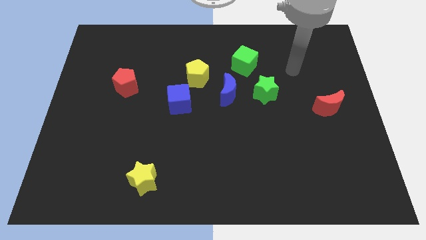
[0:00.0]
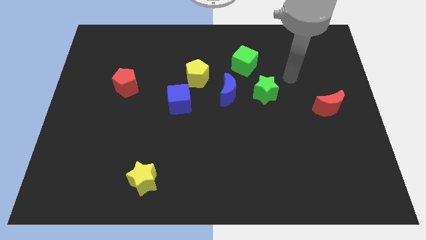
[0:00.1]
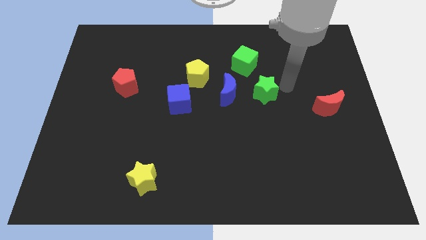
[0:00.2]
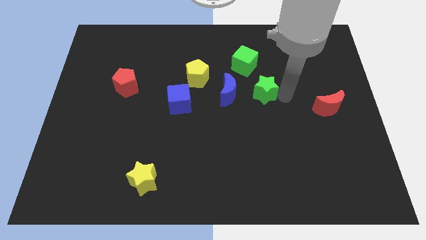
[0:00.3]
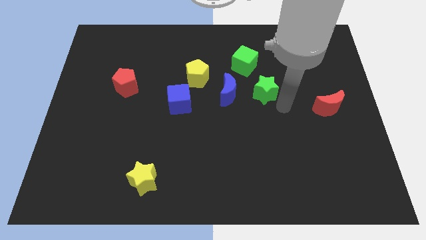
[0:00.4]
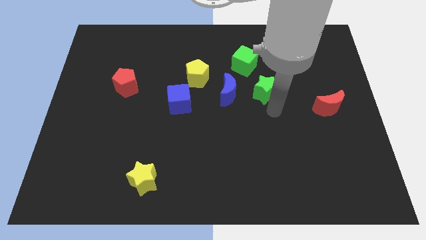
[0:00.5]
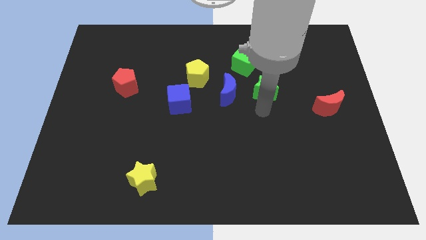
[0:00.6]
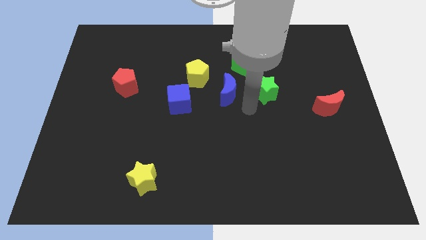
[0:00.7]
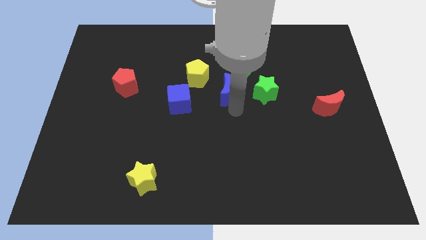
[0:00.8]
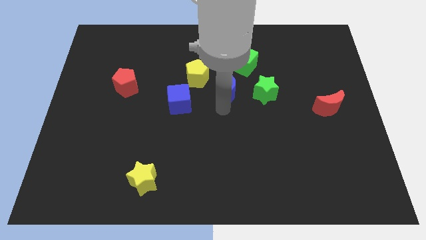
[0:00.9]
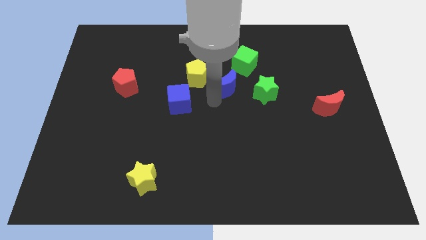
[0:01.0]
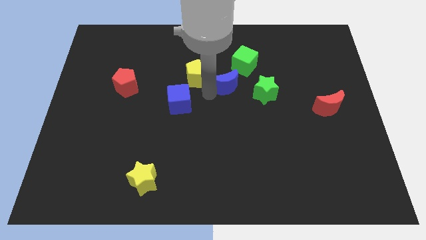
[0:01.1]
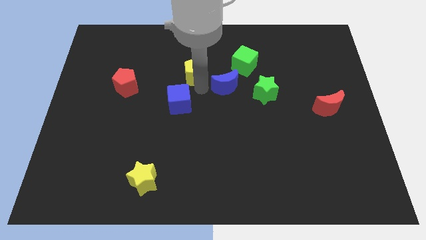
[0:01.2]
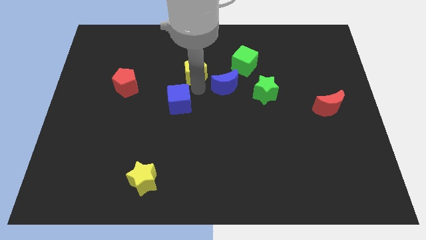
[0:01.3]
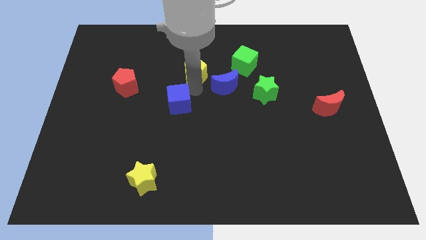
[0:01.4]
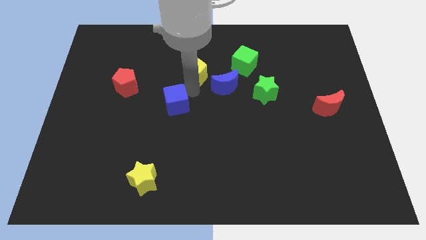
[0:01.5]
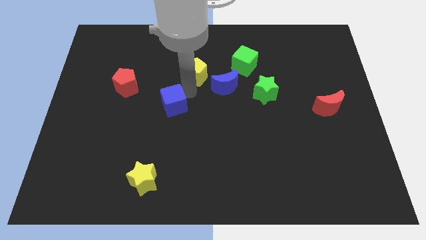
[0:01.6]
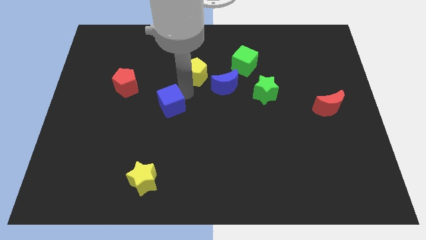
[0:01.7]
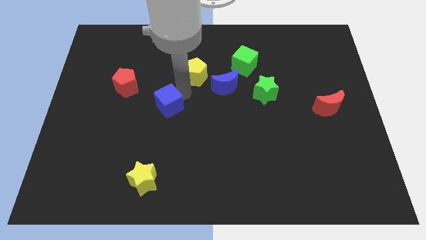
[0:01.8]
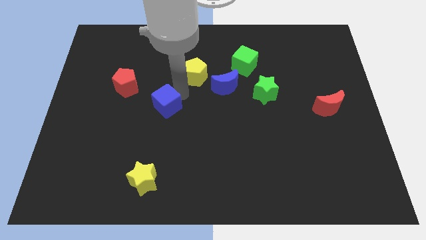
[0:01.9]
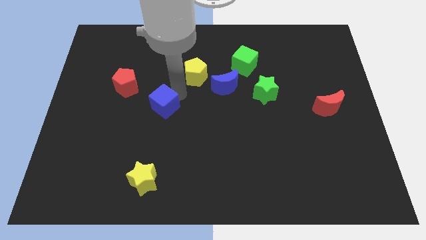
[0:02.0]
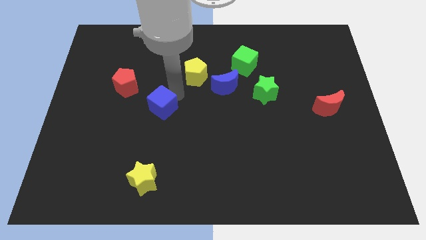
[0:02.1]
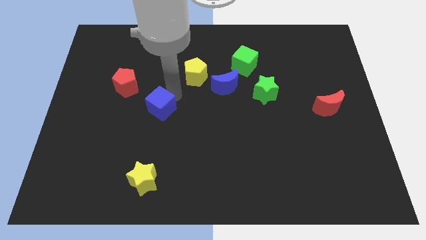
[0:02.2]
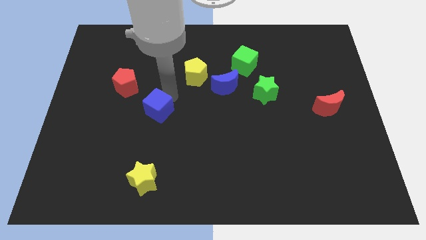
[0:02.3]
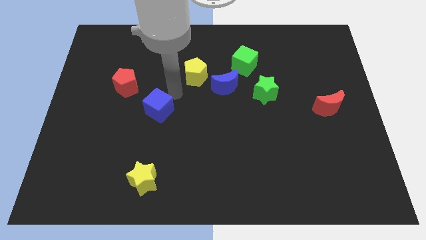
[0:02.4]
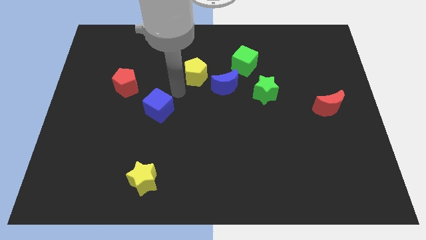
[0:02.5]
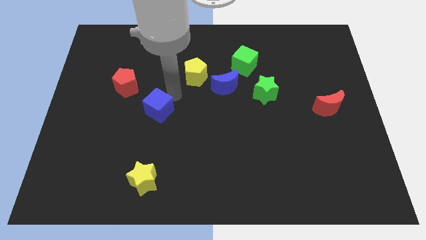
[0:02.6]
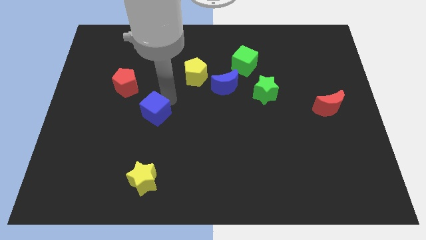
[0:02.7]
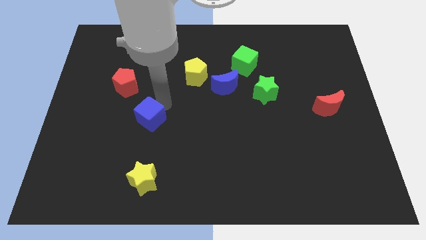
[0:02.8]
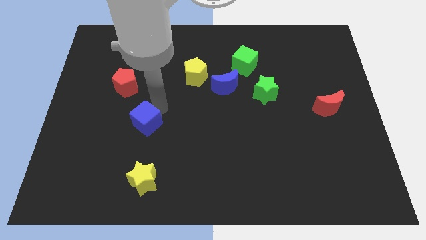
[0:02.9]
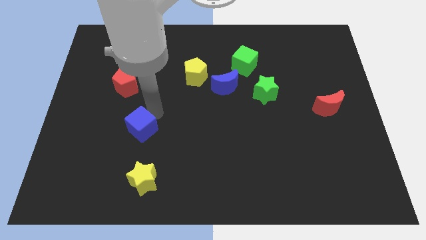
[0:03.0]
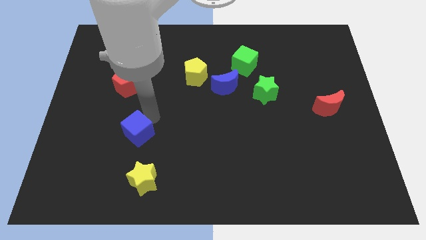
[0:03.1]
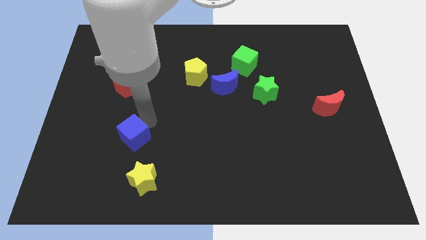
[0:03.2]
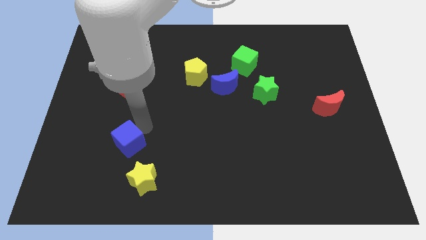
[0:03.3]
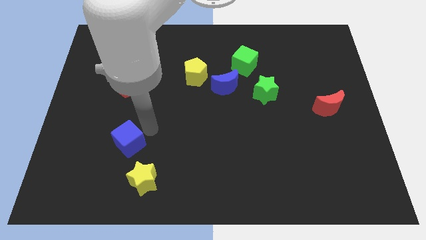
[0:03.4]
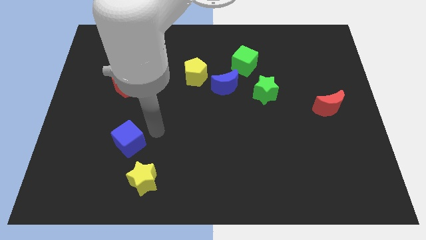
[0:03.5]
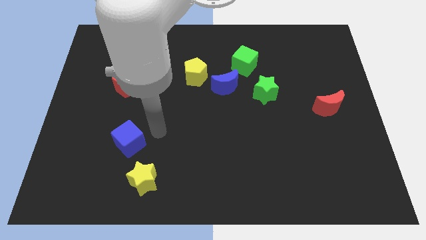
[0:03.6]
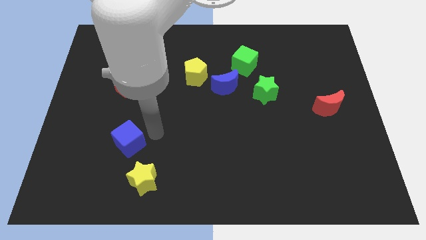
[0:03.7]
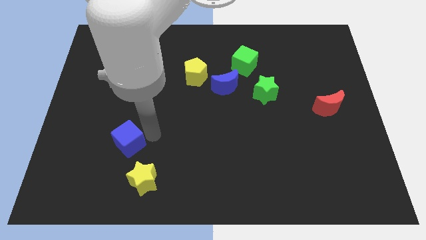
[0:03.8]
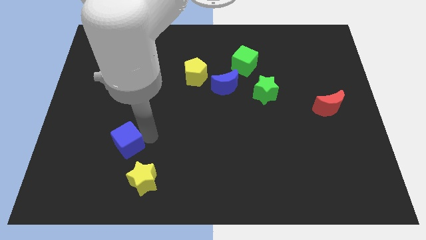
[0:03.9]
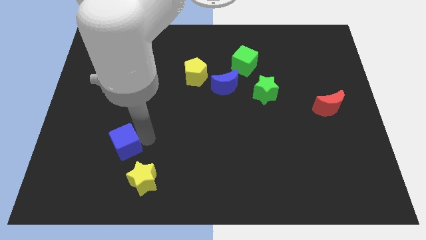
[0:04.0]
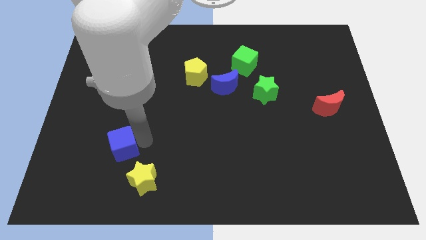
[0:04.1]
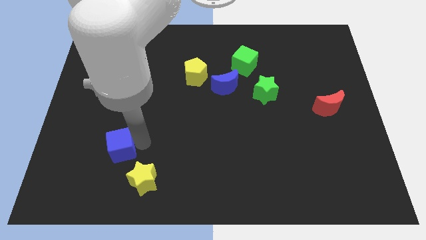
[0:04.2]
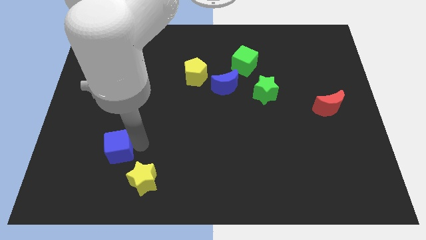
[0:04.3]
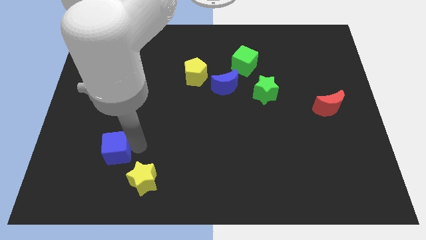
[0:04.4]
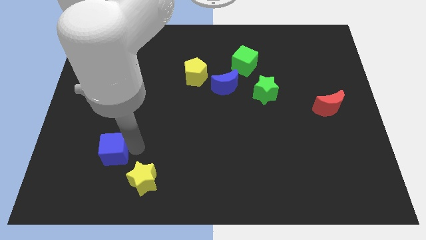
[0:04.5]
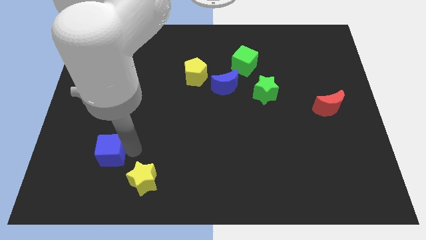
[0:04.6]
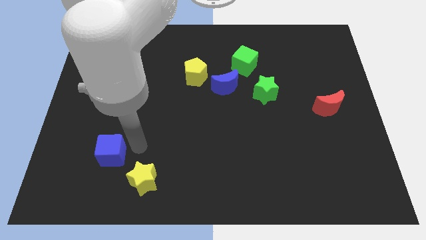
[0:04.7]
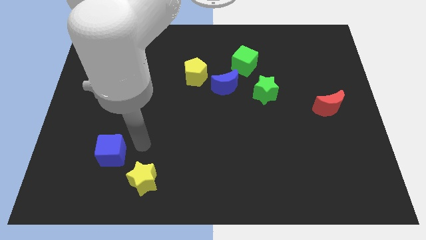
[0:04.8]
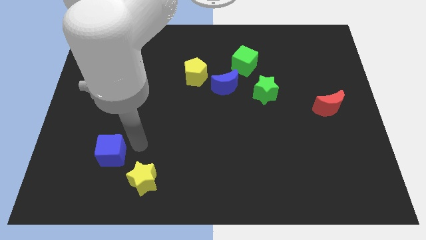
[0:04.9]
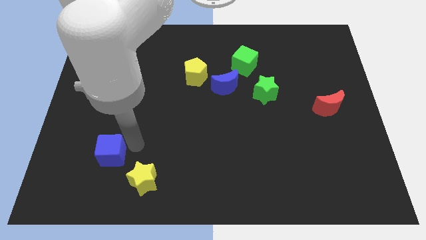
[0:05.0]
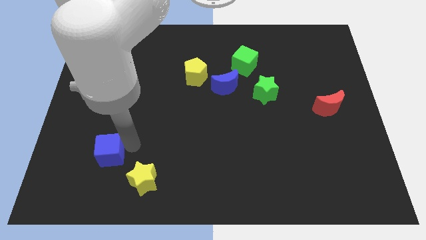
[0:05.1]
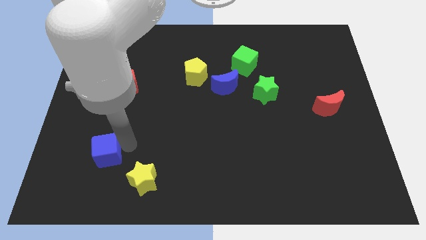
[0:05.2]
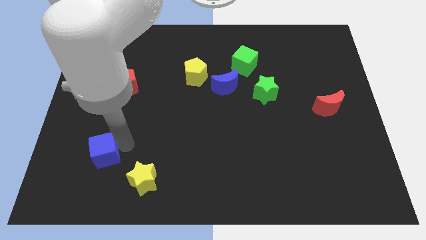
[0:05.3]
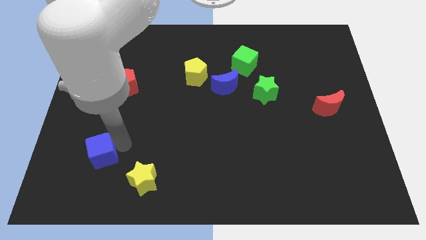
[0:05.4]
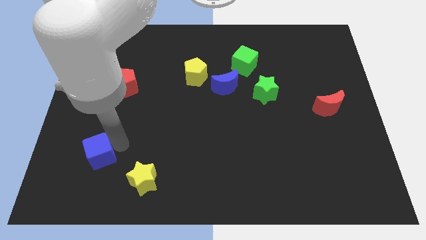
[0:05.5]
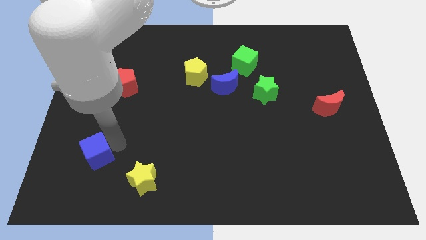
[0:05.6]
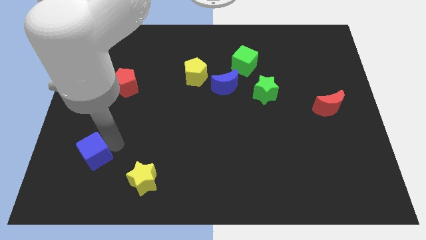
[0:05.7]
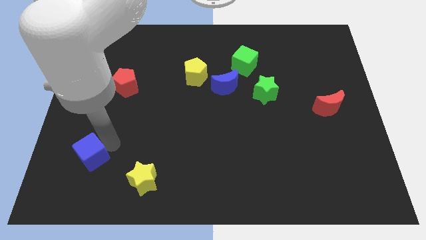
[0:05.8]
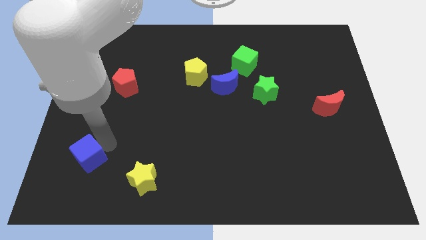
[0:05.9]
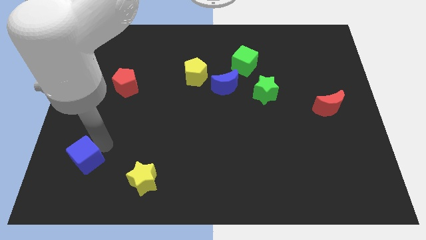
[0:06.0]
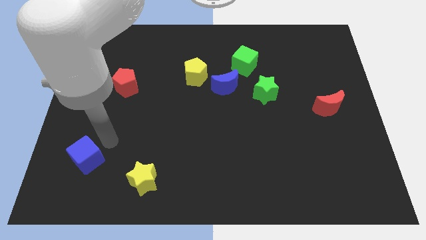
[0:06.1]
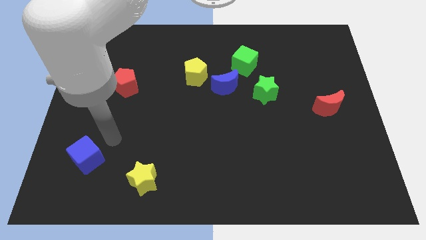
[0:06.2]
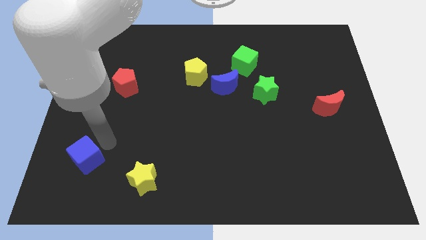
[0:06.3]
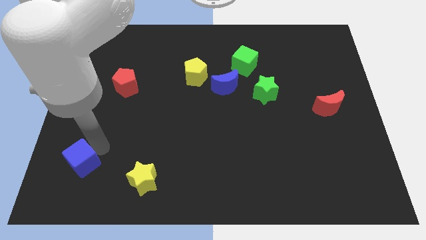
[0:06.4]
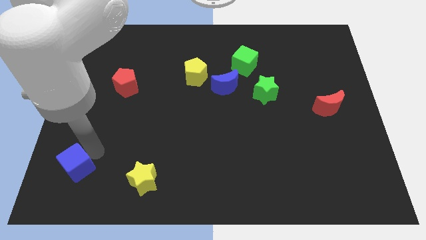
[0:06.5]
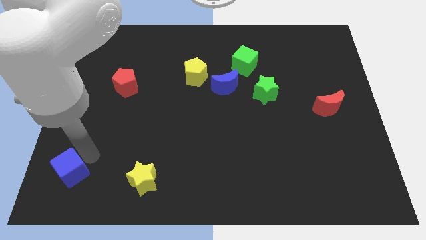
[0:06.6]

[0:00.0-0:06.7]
push the blue cube to the bottom left corner
